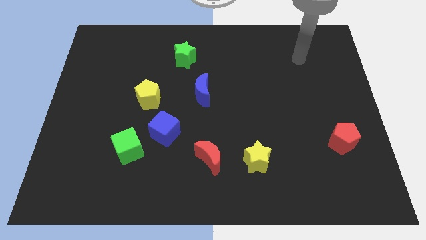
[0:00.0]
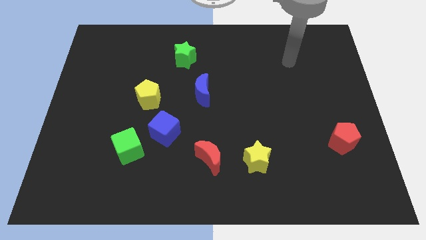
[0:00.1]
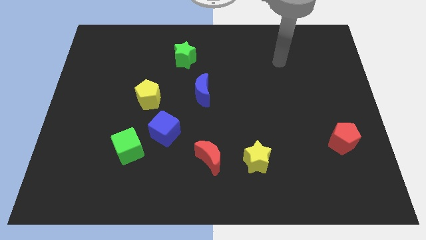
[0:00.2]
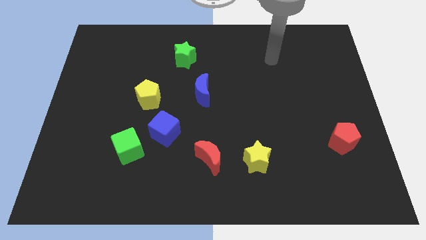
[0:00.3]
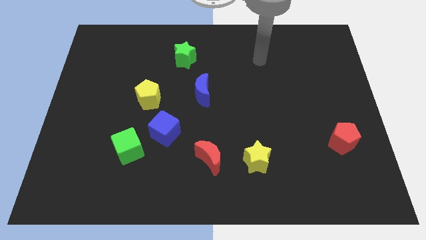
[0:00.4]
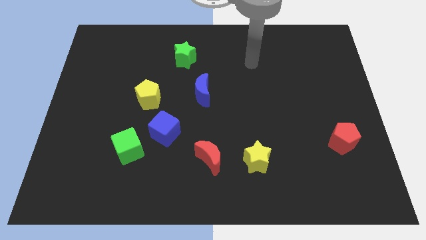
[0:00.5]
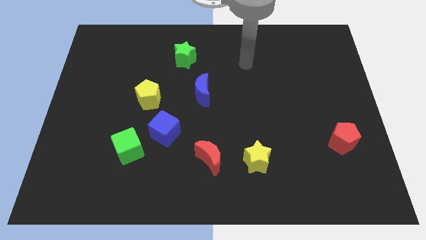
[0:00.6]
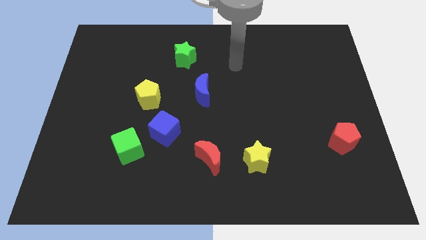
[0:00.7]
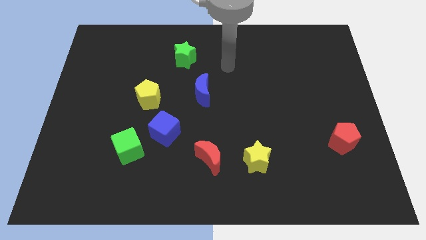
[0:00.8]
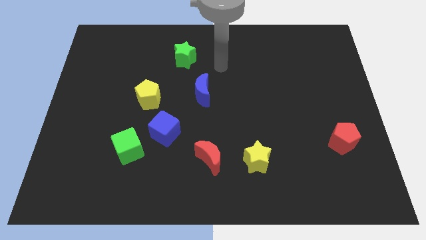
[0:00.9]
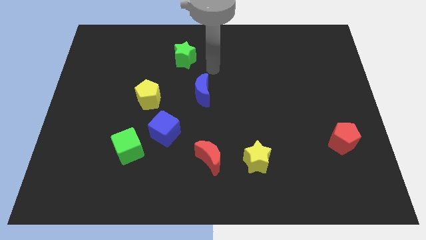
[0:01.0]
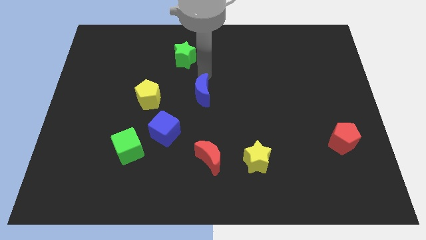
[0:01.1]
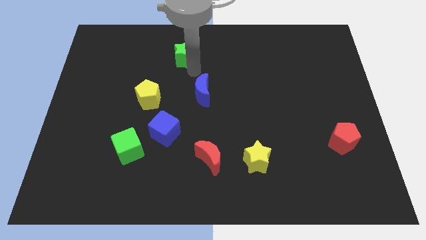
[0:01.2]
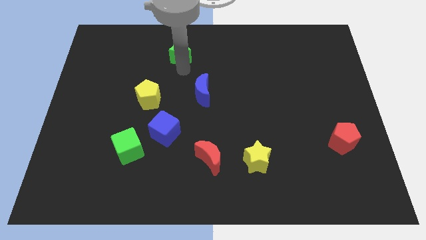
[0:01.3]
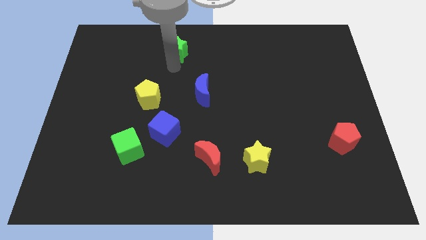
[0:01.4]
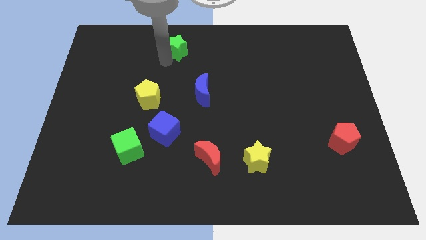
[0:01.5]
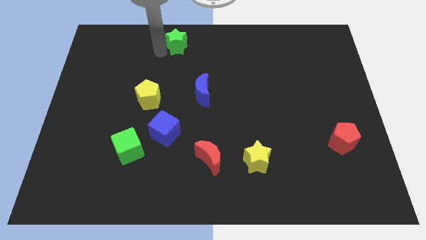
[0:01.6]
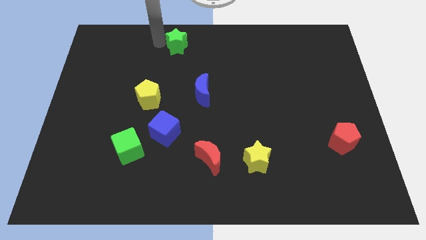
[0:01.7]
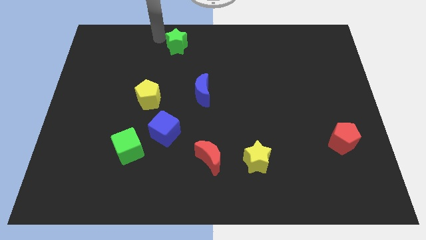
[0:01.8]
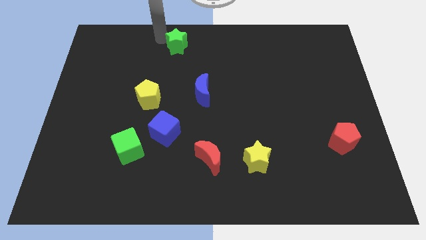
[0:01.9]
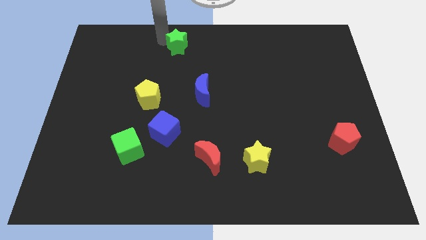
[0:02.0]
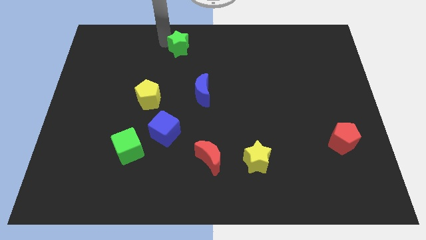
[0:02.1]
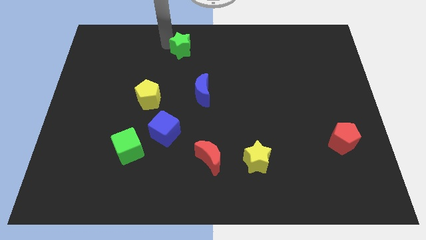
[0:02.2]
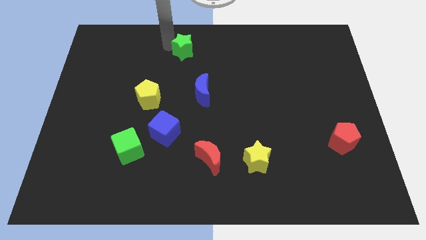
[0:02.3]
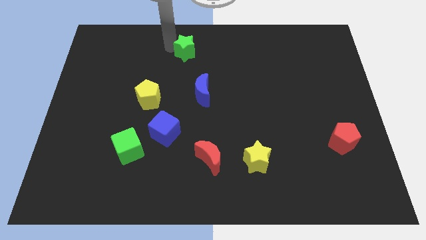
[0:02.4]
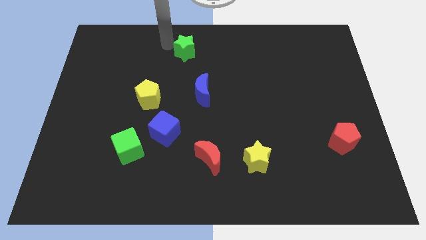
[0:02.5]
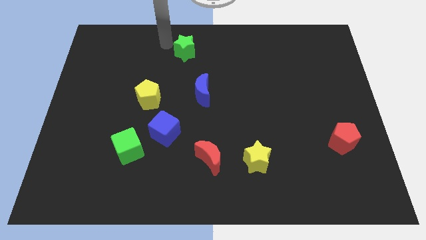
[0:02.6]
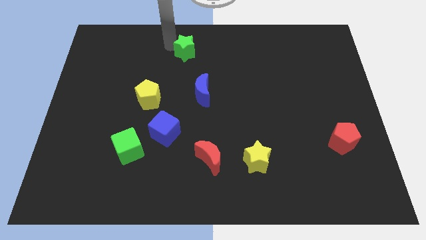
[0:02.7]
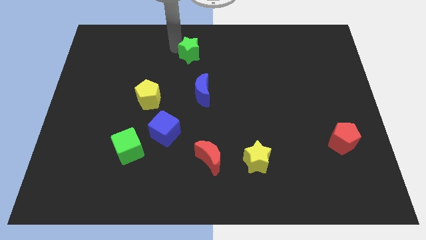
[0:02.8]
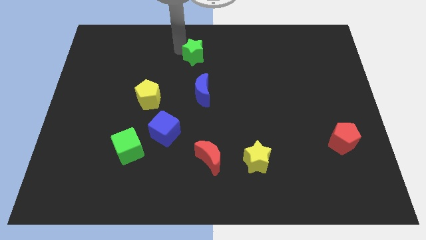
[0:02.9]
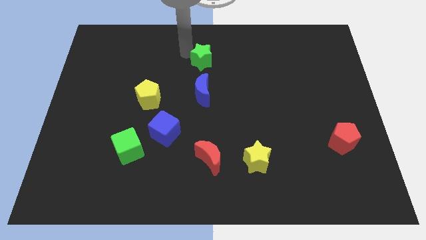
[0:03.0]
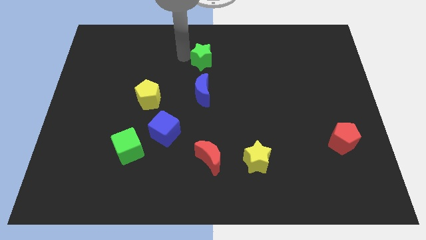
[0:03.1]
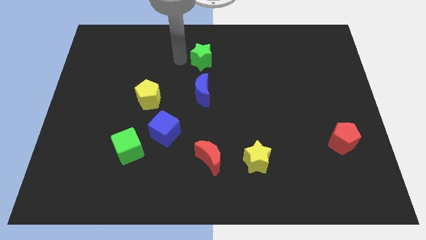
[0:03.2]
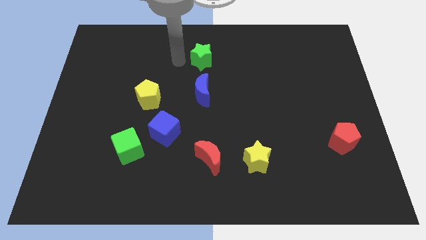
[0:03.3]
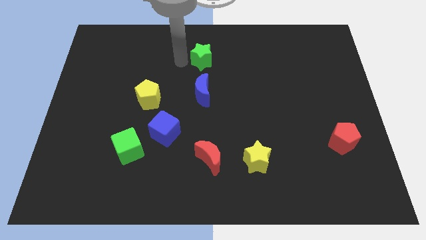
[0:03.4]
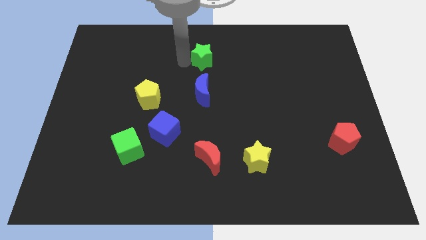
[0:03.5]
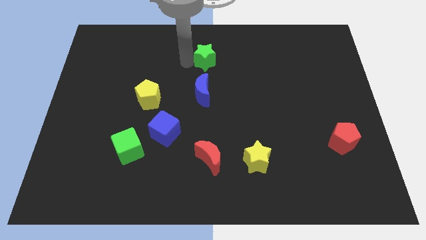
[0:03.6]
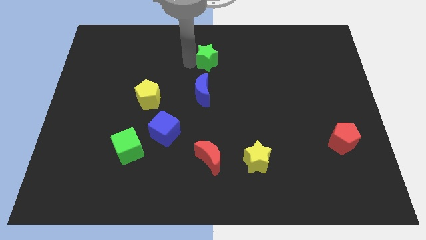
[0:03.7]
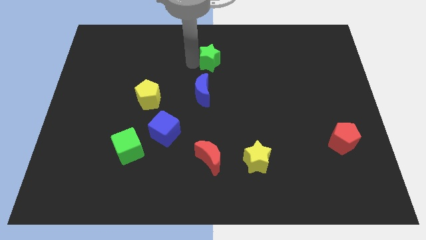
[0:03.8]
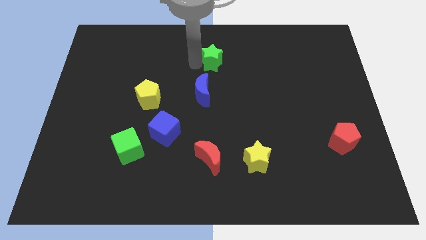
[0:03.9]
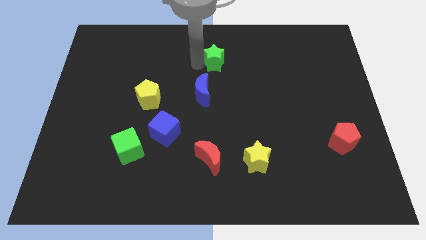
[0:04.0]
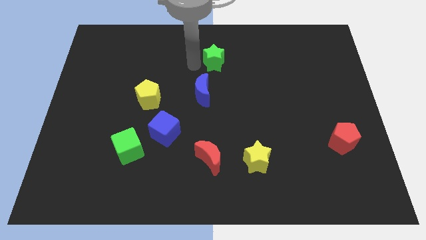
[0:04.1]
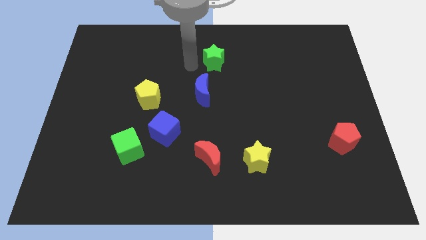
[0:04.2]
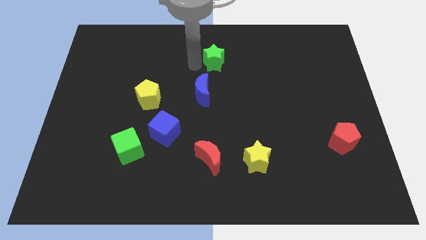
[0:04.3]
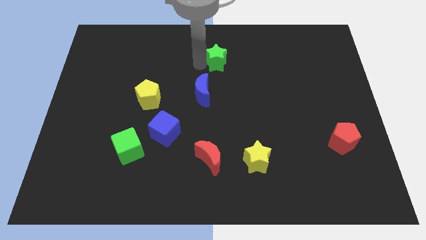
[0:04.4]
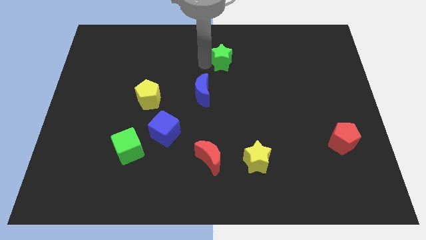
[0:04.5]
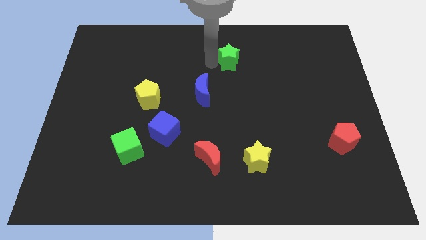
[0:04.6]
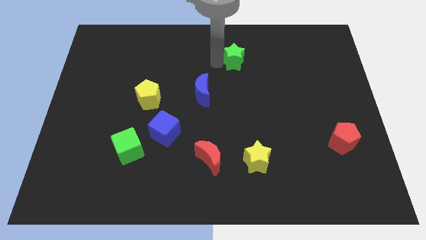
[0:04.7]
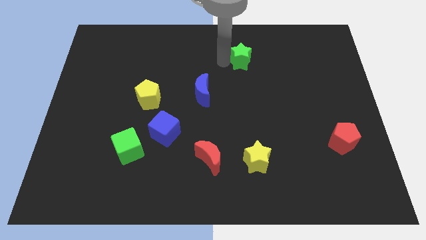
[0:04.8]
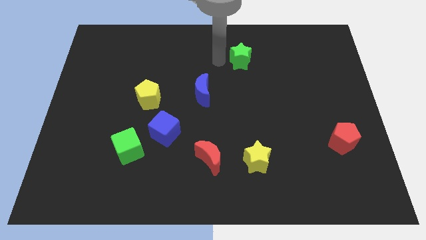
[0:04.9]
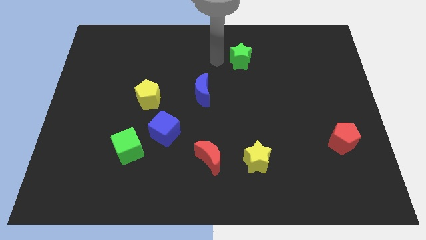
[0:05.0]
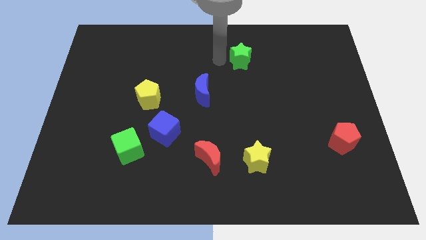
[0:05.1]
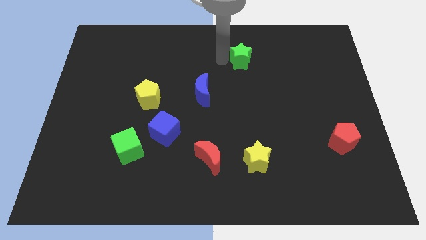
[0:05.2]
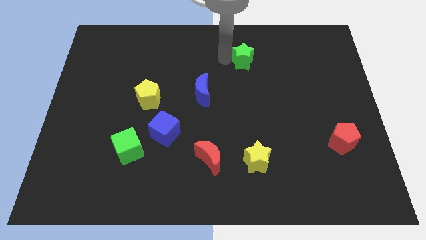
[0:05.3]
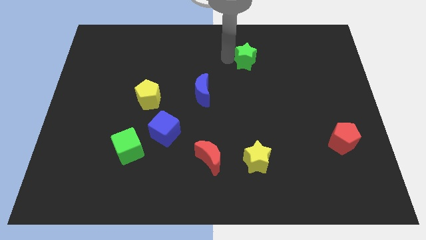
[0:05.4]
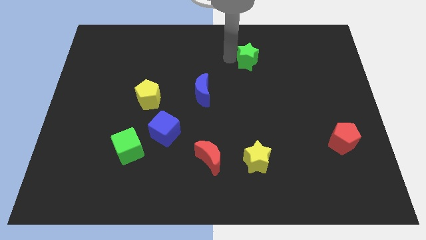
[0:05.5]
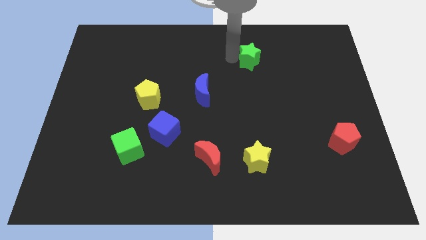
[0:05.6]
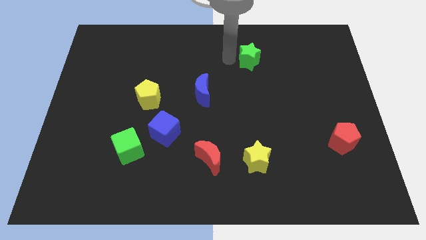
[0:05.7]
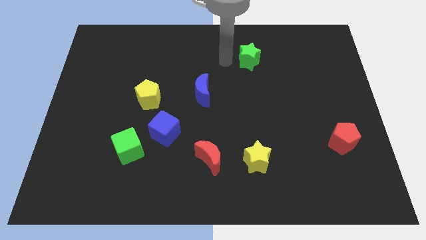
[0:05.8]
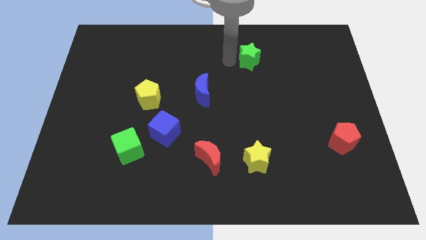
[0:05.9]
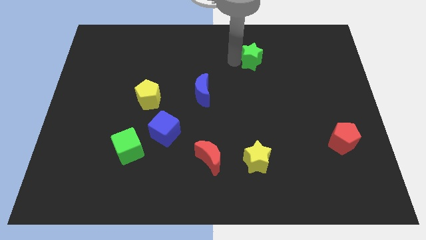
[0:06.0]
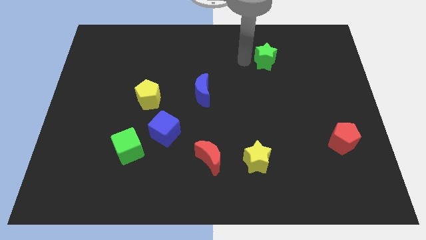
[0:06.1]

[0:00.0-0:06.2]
move the green star right

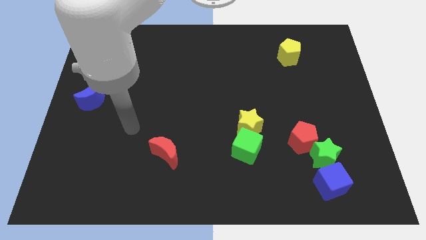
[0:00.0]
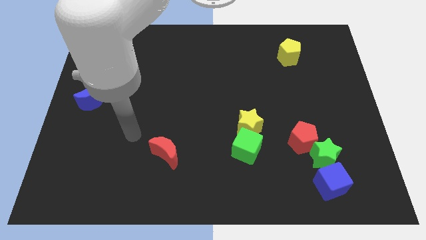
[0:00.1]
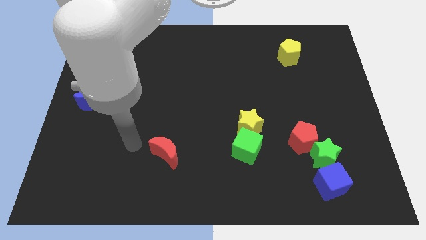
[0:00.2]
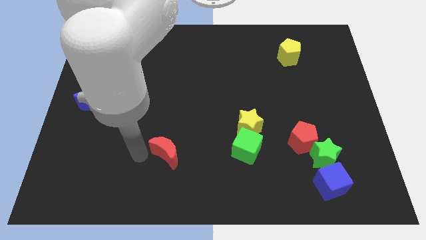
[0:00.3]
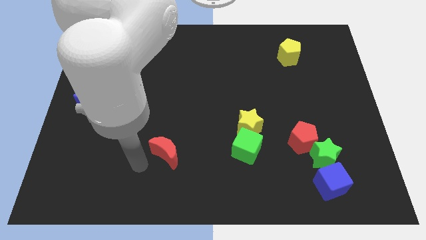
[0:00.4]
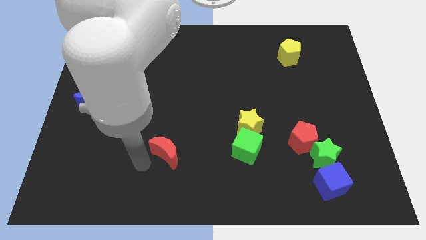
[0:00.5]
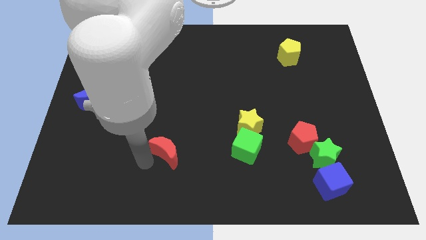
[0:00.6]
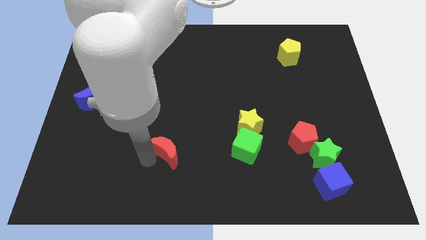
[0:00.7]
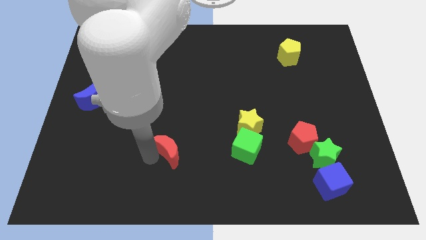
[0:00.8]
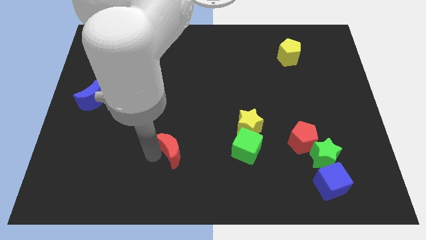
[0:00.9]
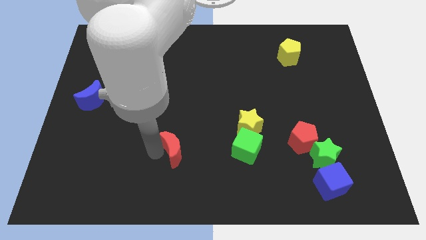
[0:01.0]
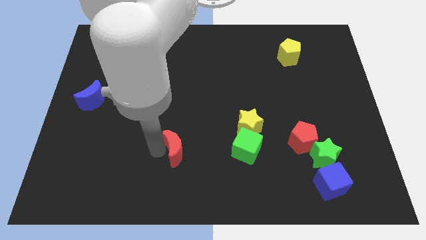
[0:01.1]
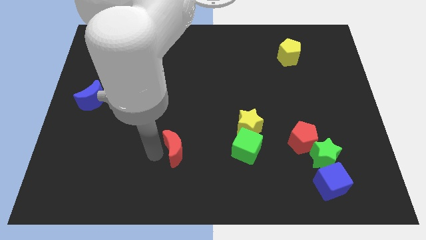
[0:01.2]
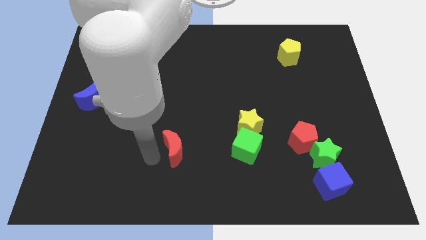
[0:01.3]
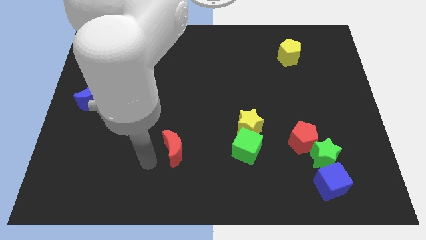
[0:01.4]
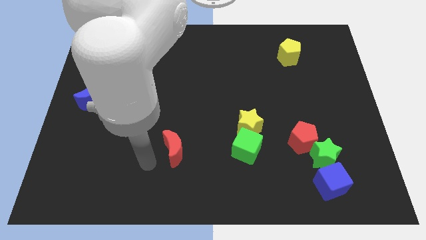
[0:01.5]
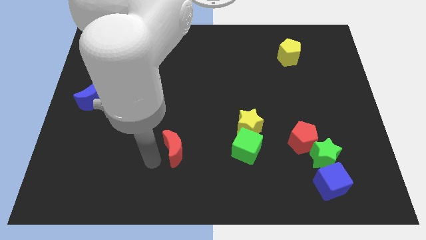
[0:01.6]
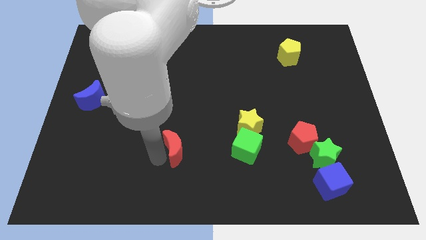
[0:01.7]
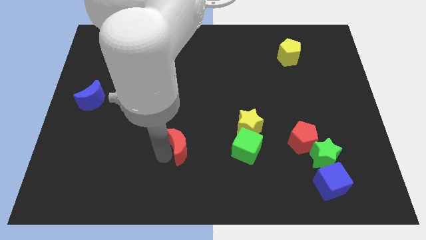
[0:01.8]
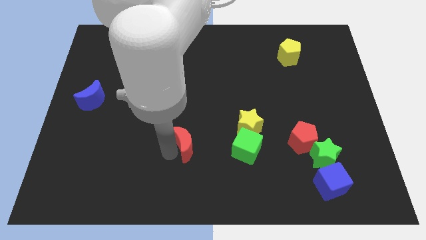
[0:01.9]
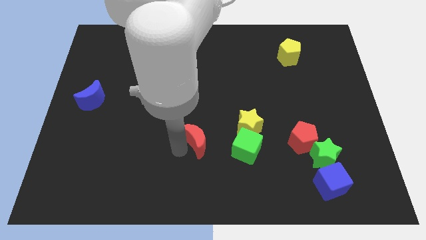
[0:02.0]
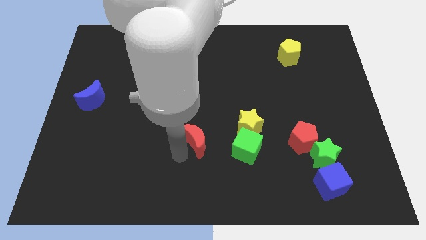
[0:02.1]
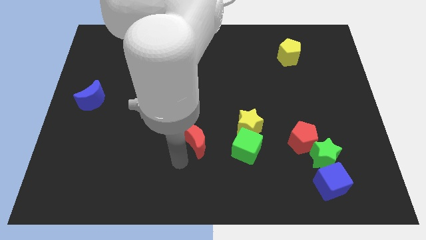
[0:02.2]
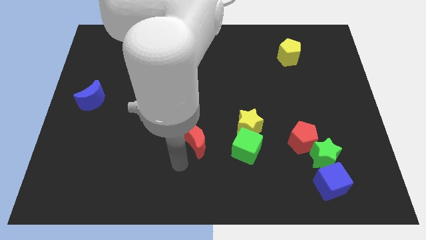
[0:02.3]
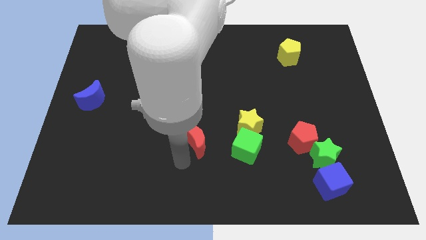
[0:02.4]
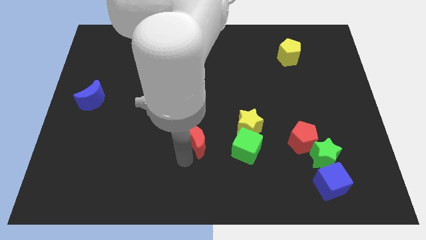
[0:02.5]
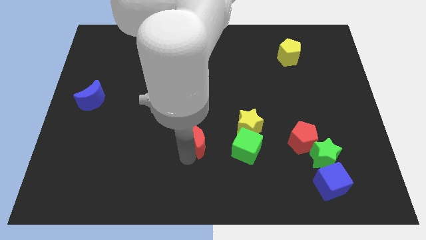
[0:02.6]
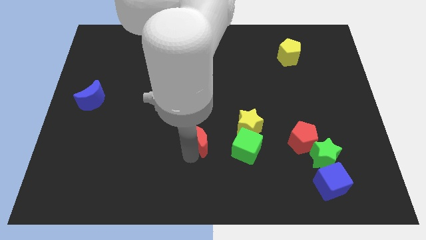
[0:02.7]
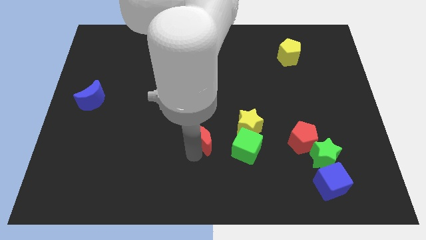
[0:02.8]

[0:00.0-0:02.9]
slightly move the red moon up and then right
